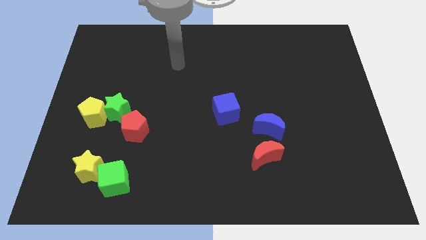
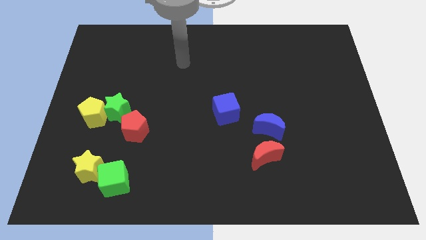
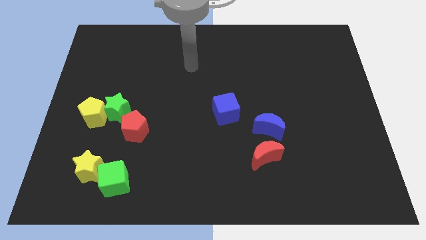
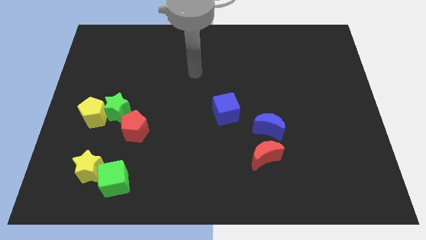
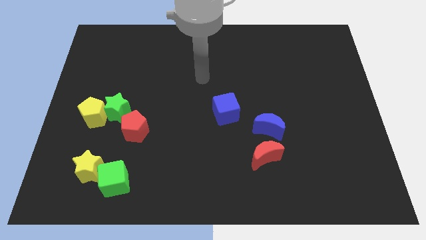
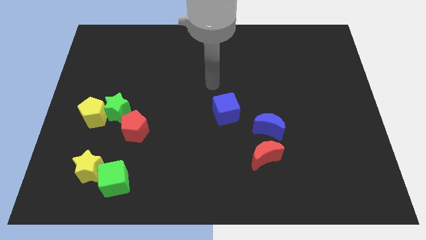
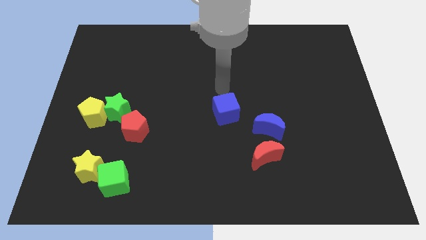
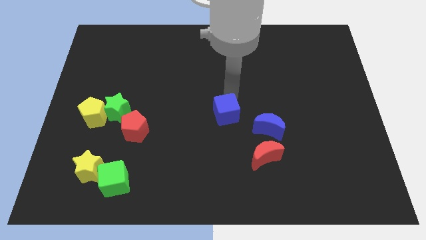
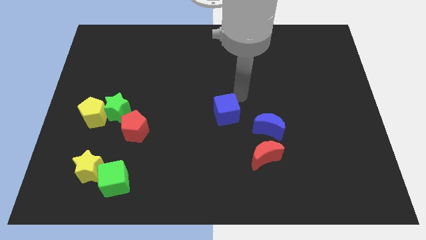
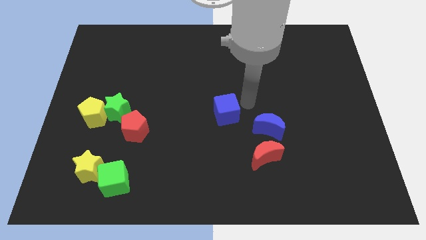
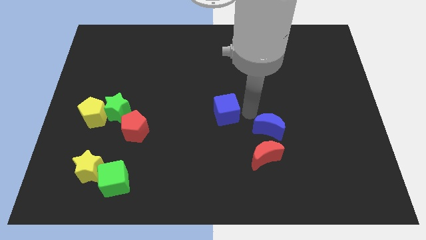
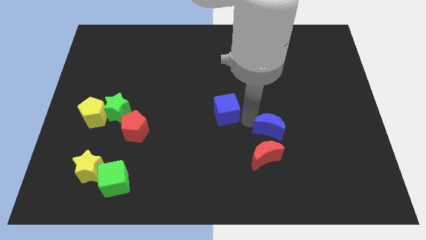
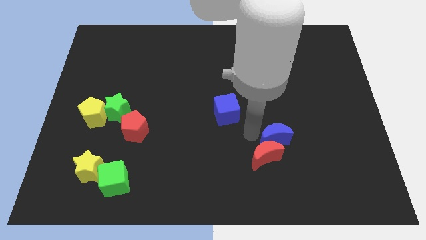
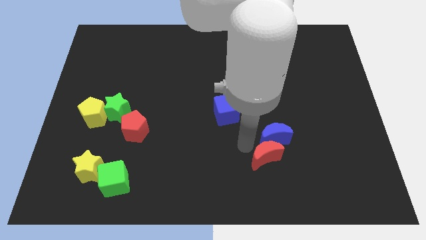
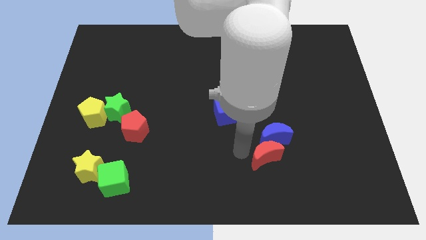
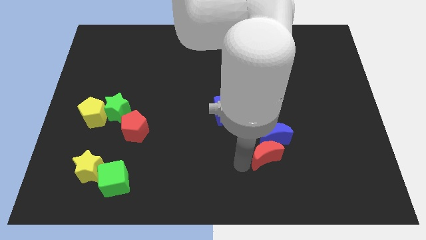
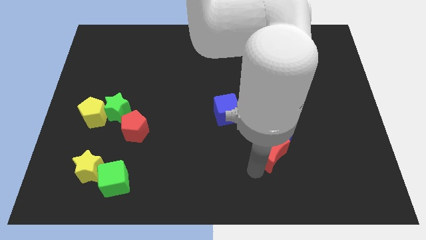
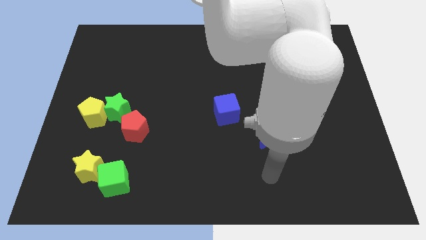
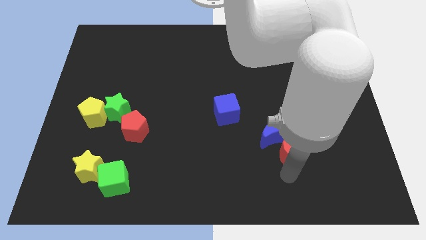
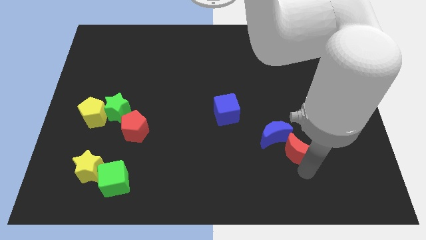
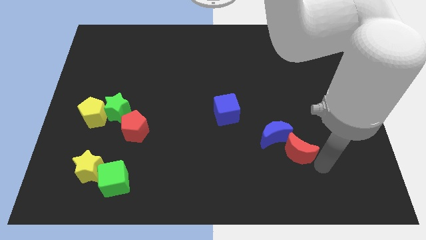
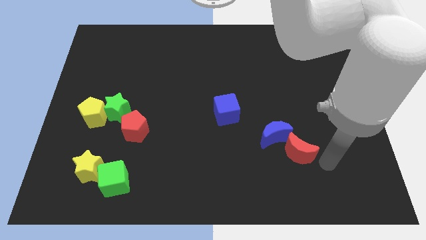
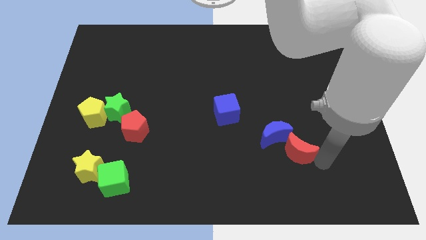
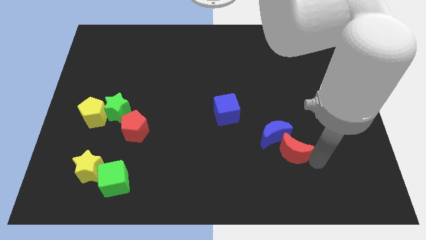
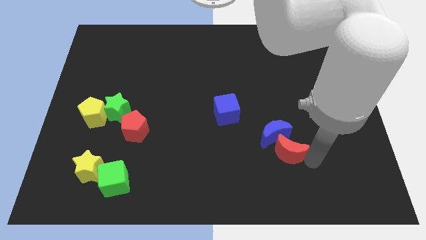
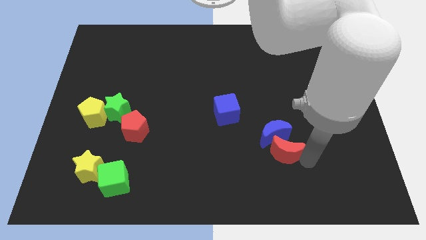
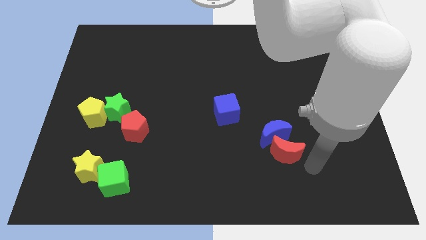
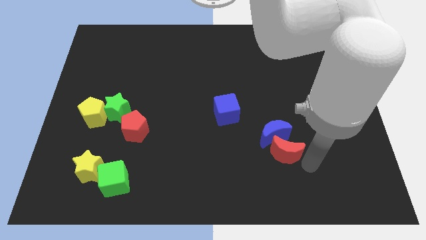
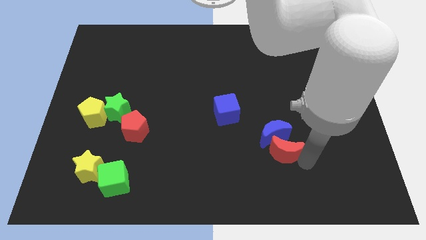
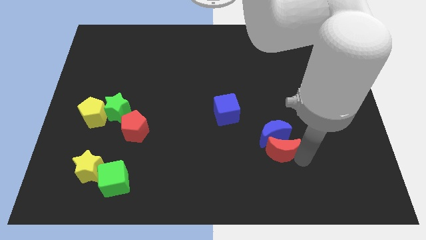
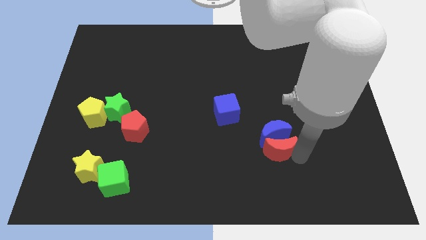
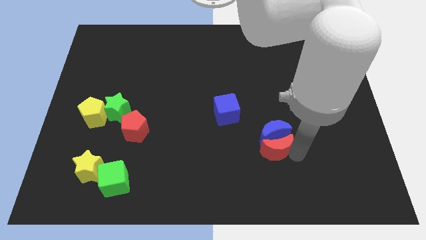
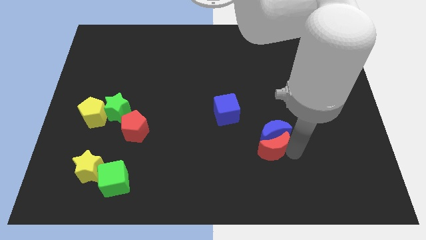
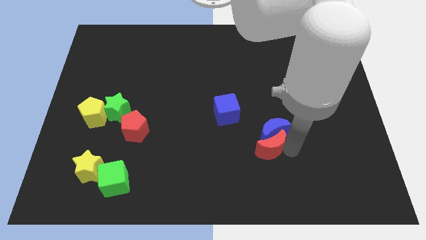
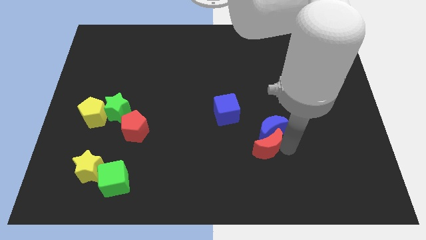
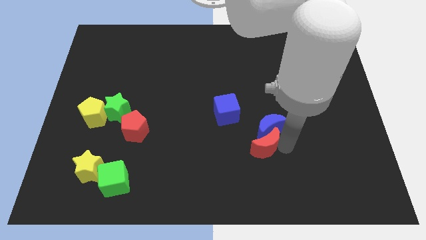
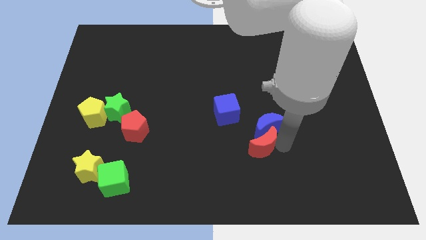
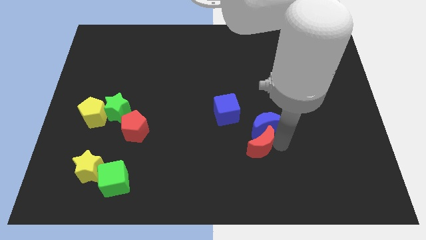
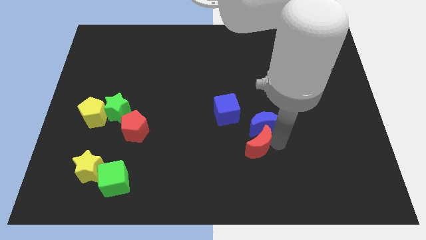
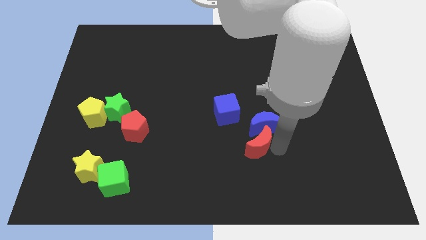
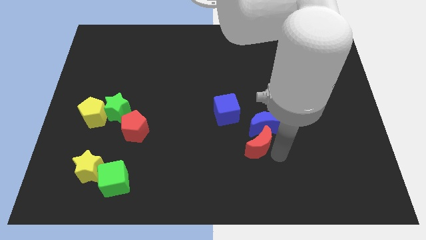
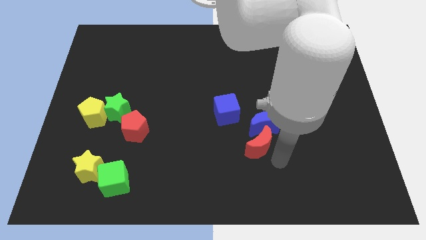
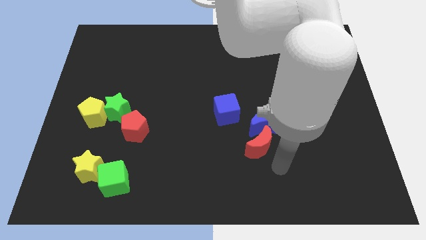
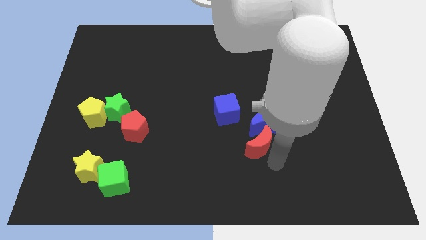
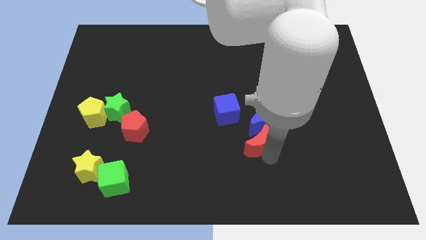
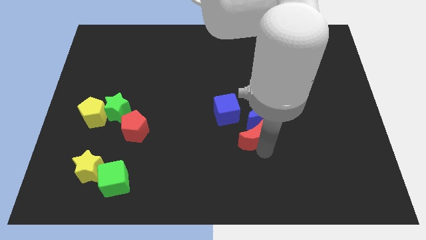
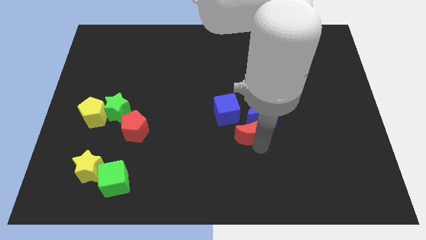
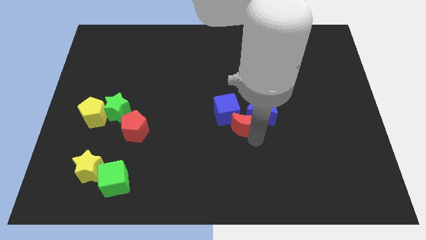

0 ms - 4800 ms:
push the red moon next to the blue cube

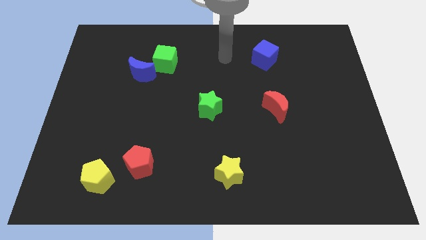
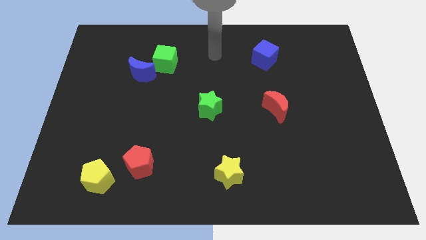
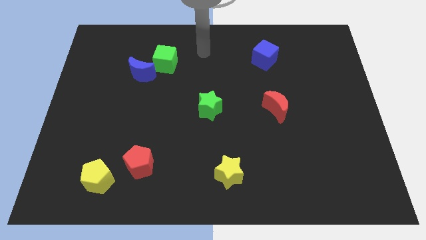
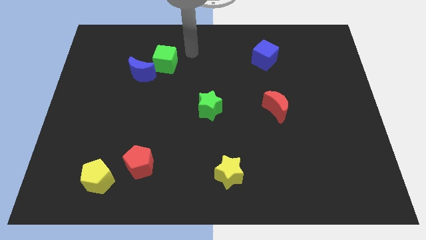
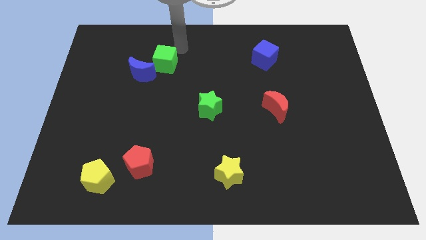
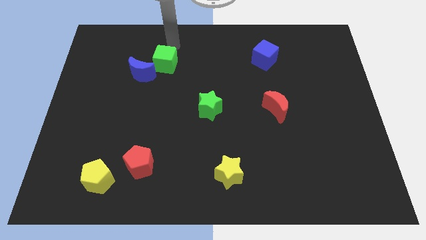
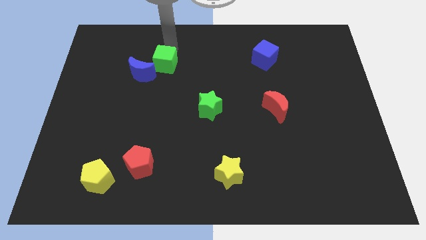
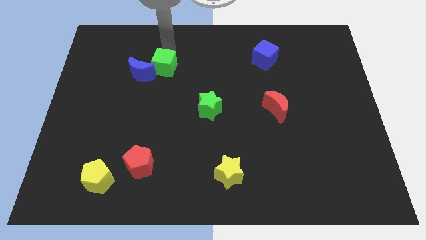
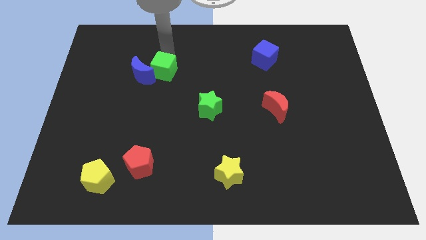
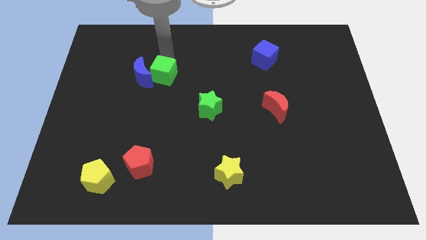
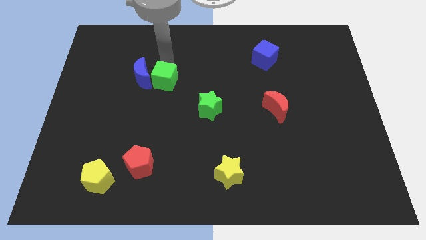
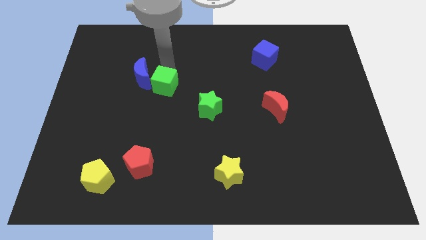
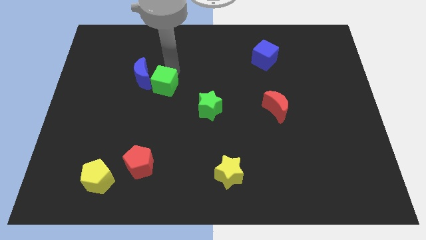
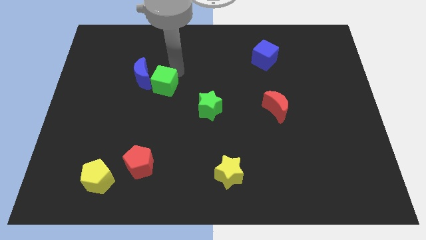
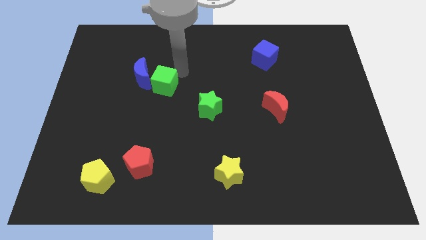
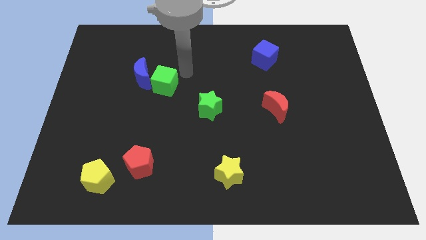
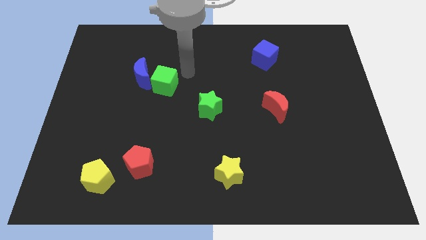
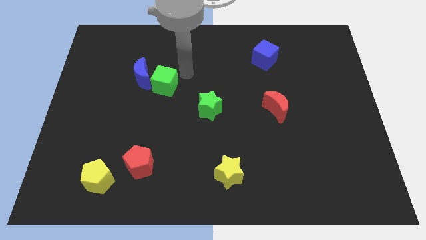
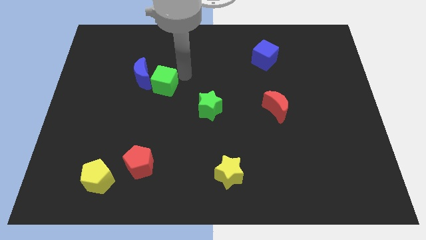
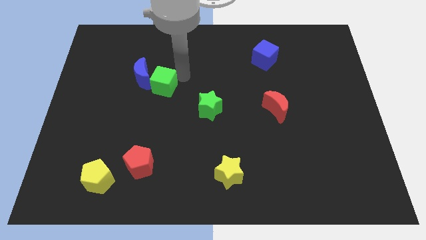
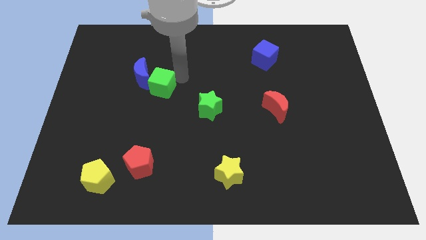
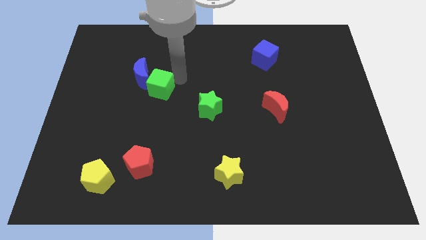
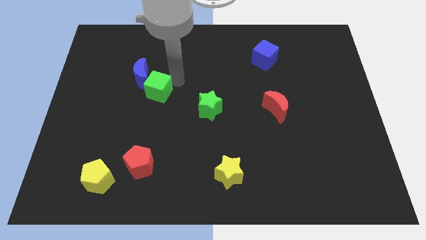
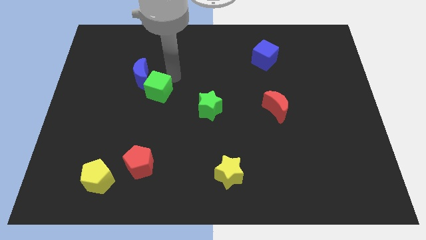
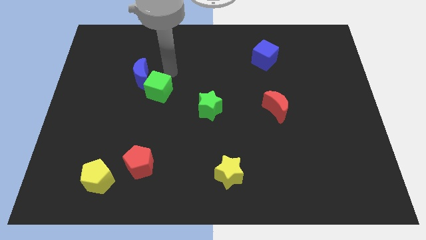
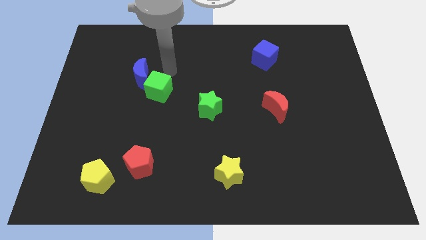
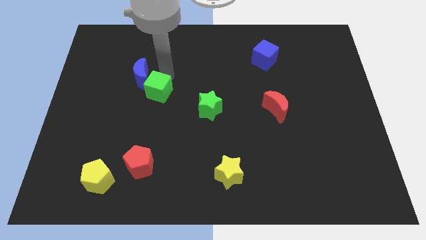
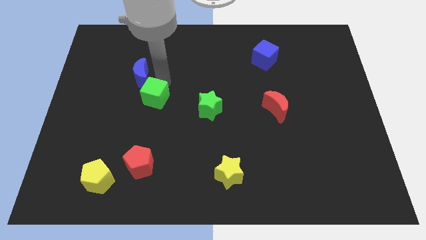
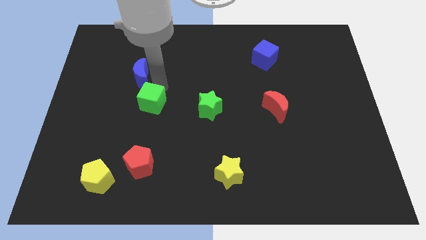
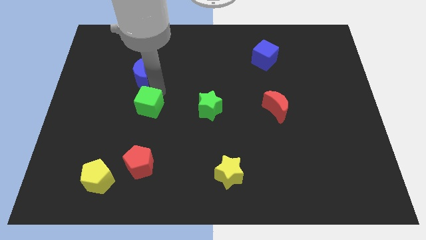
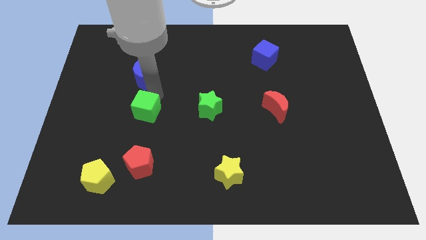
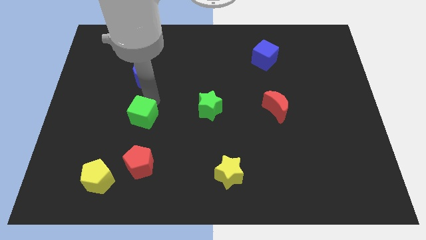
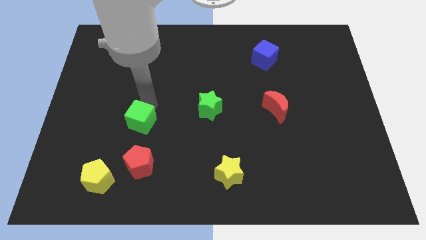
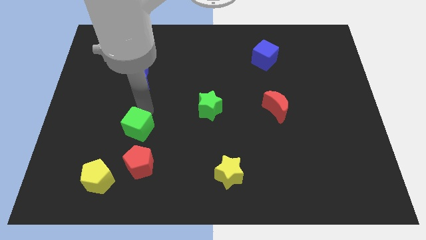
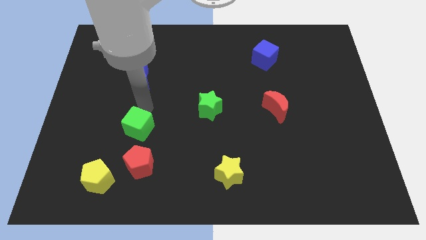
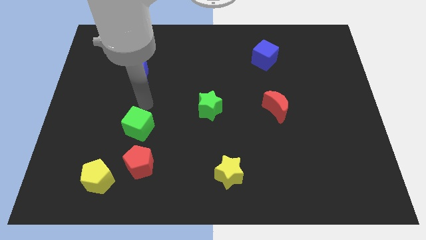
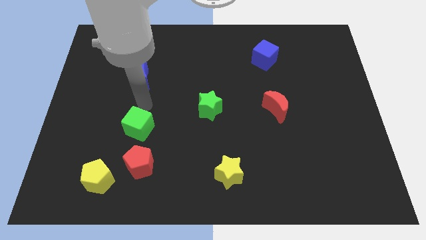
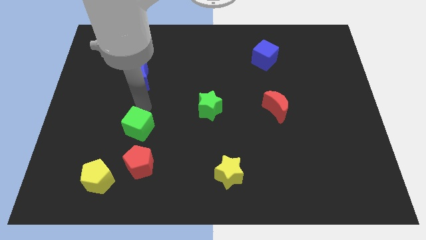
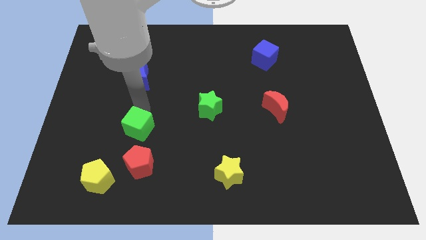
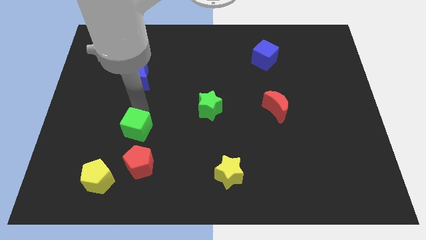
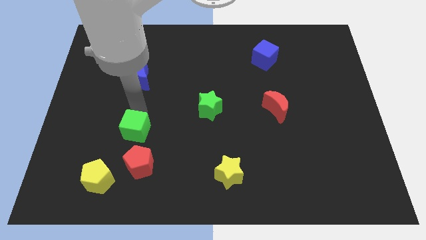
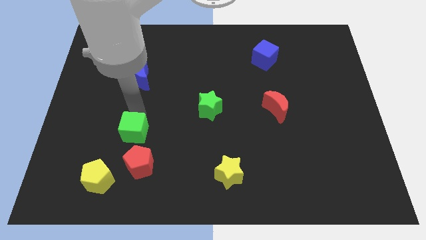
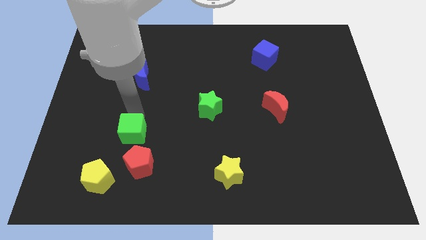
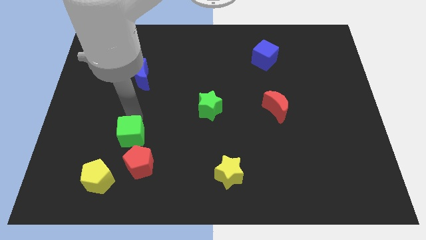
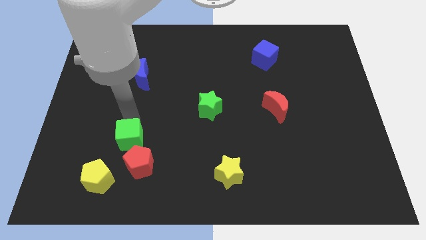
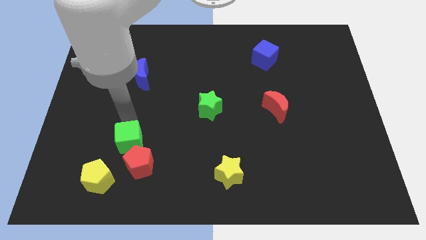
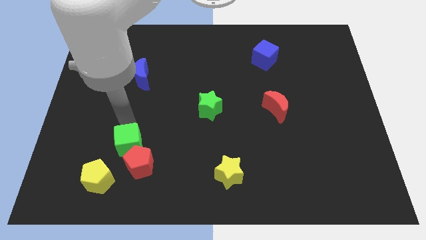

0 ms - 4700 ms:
put the green cube close to the red pentagon
